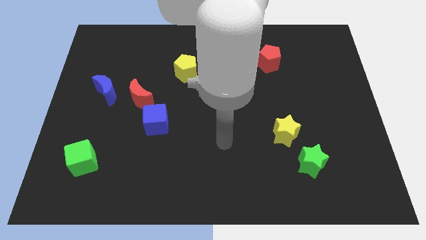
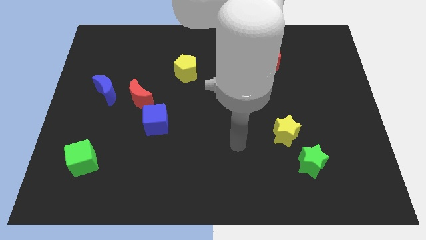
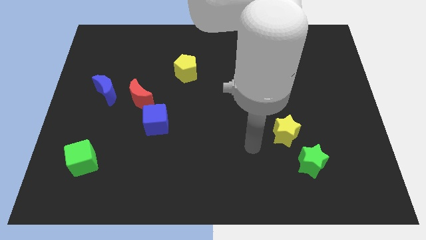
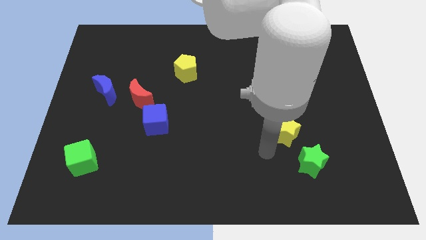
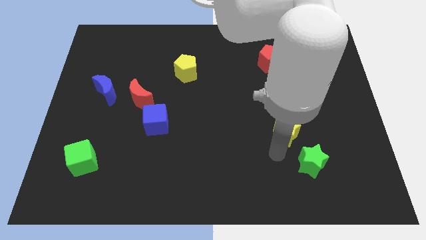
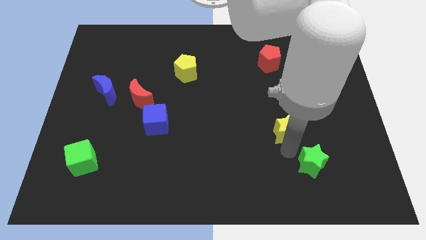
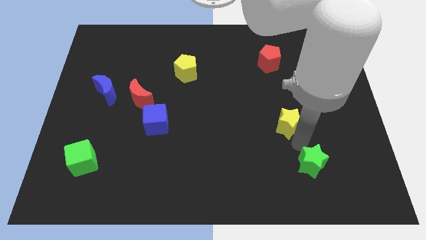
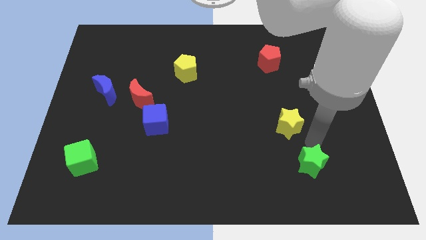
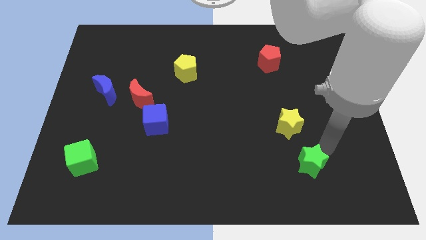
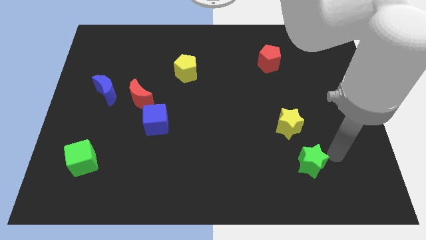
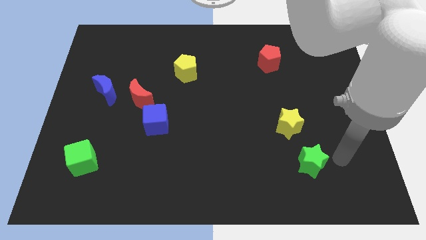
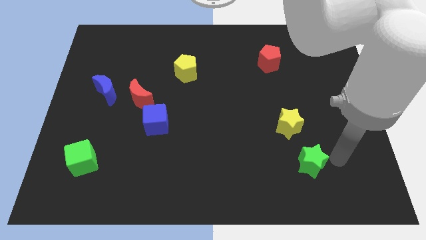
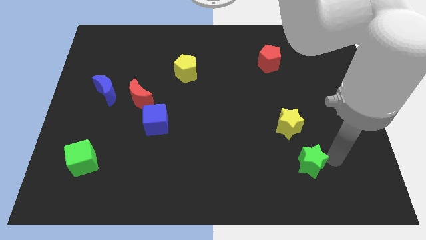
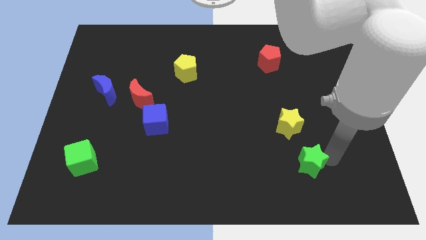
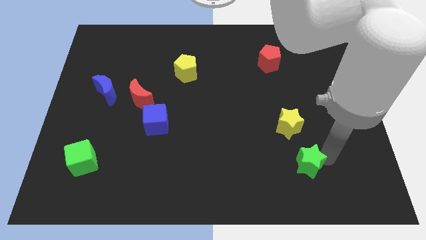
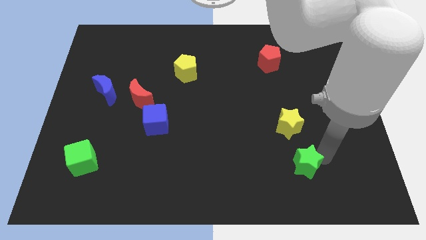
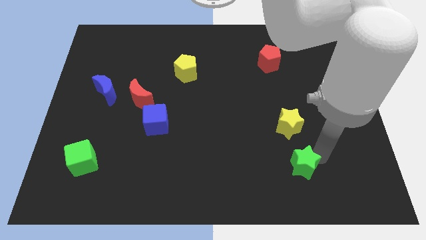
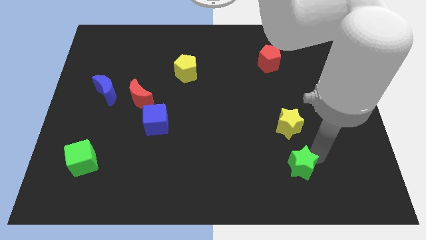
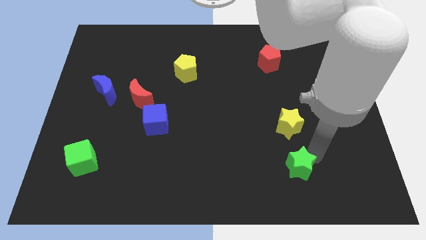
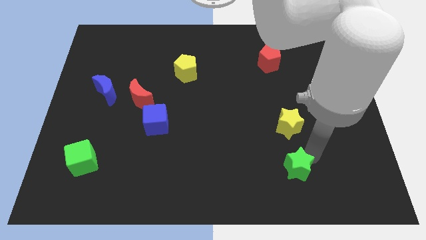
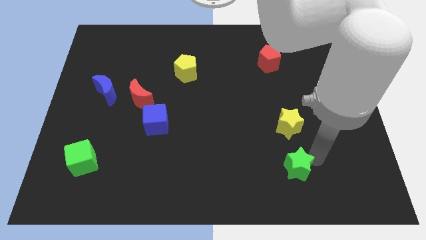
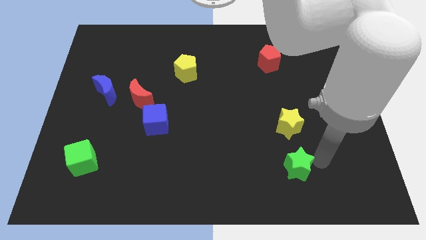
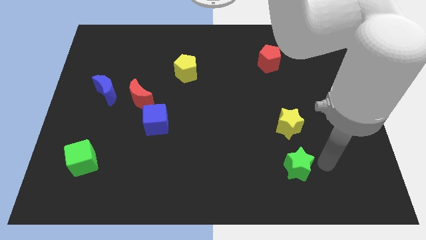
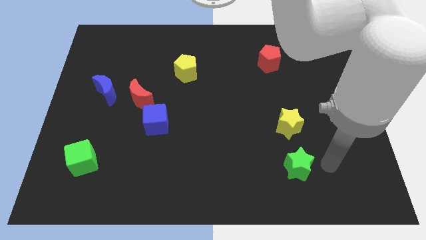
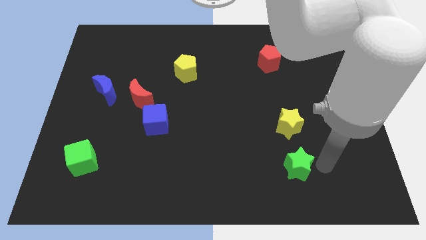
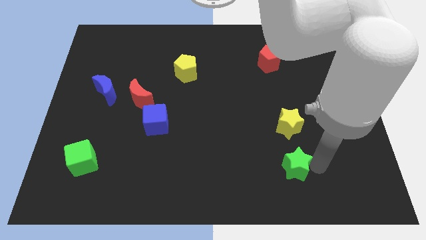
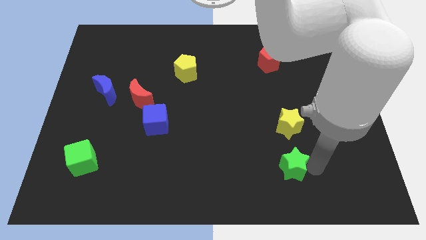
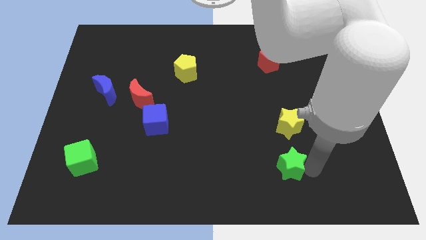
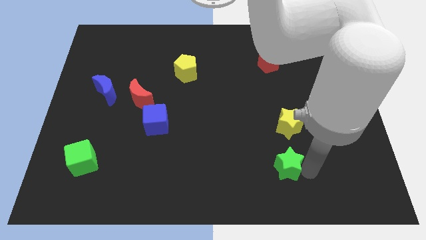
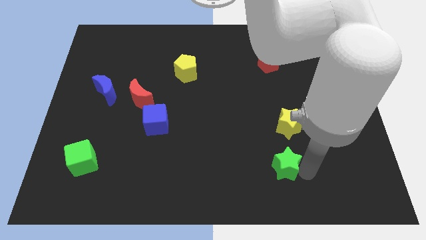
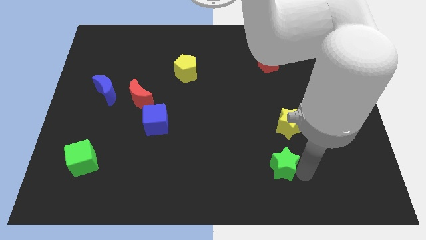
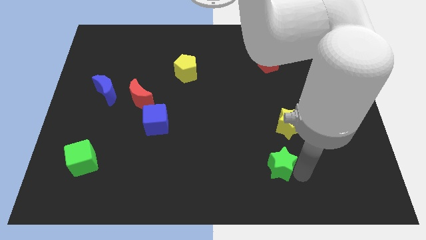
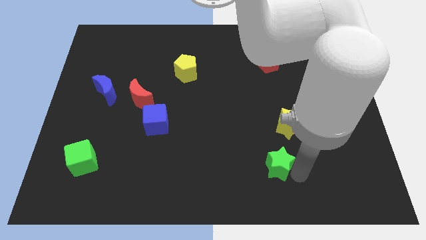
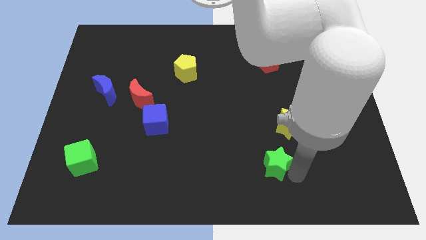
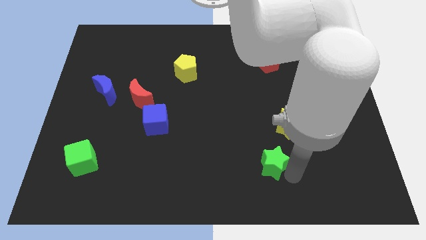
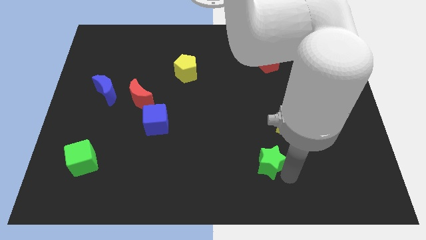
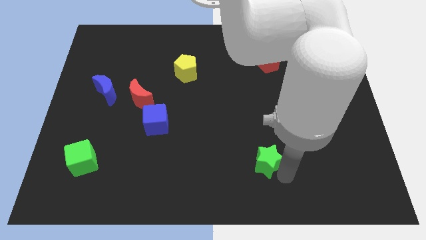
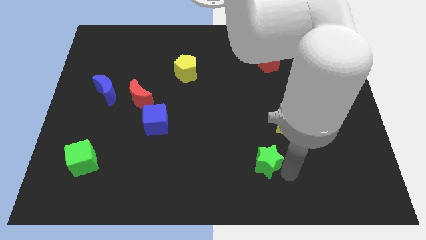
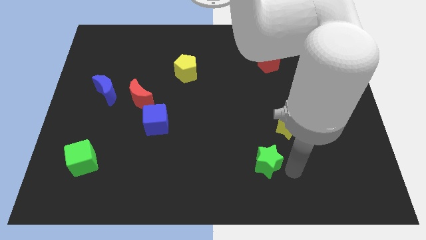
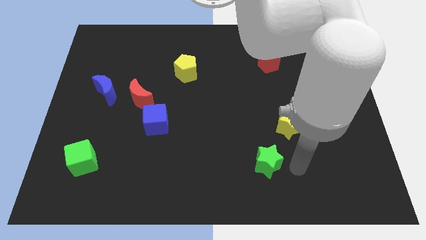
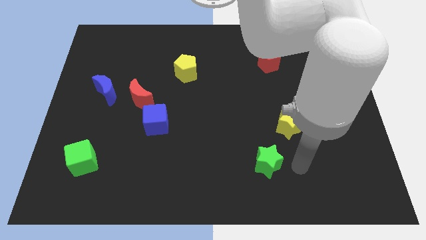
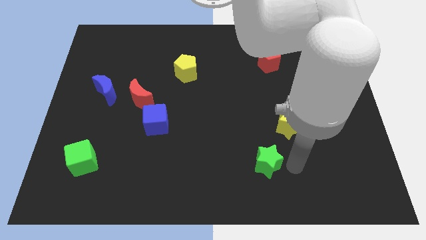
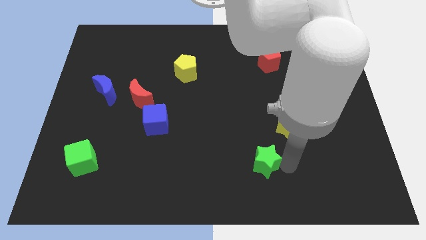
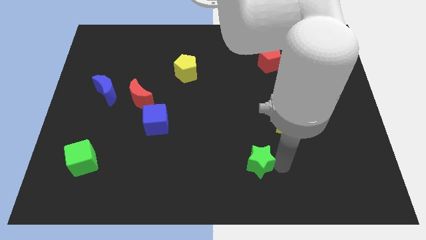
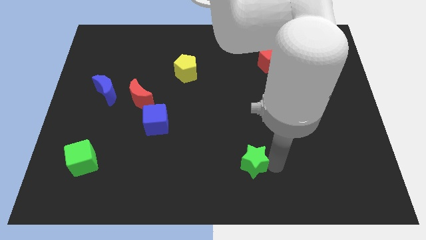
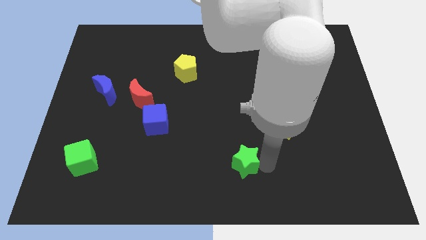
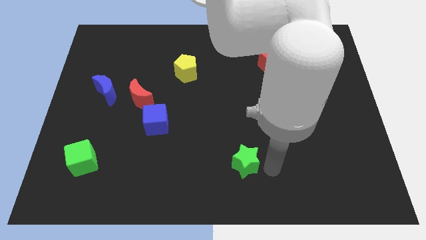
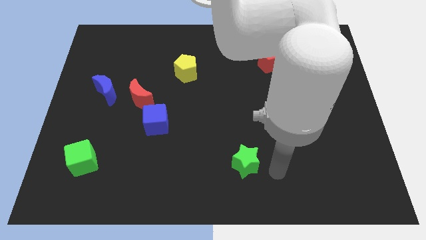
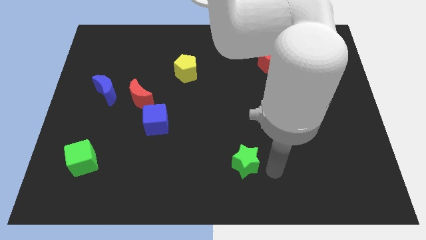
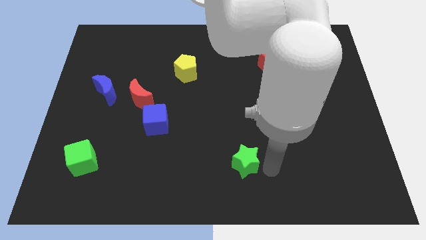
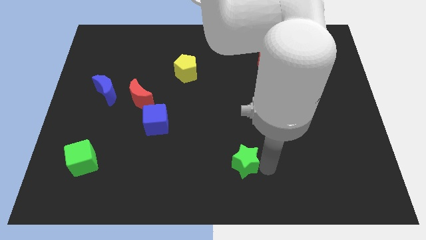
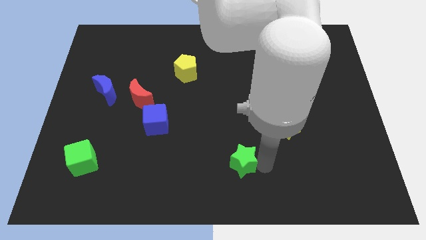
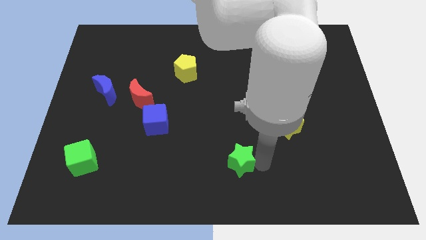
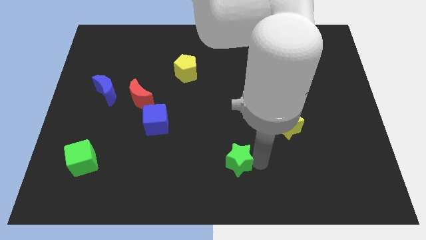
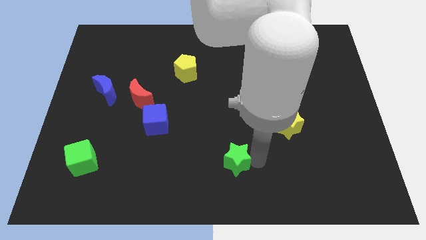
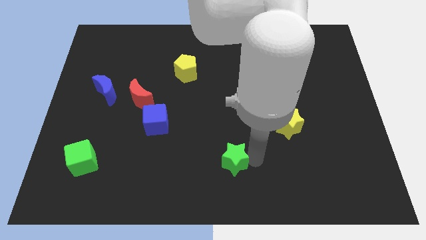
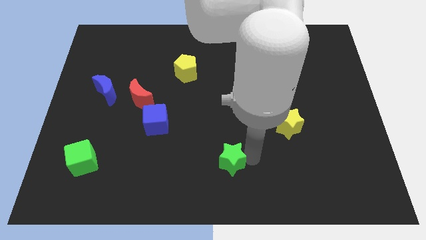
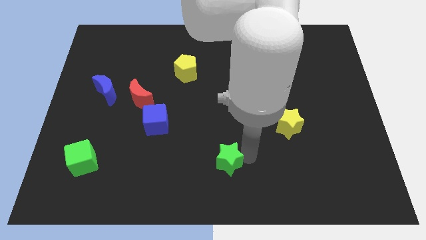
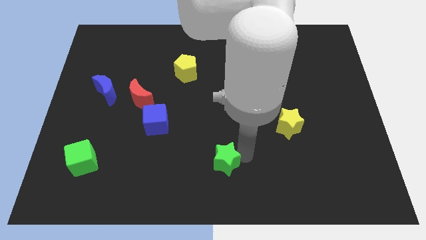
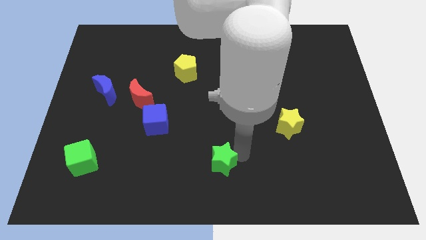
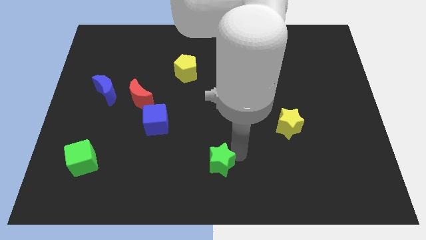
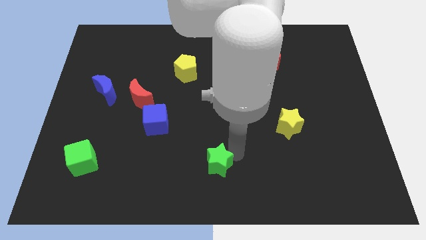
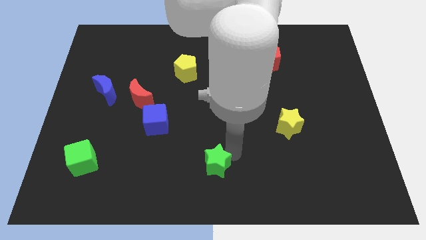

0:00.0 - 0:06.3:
move the green star to the left

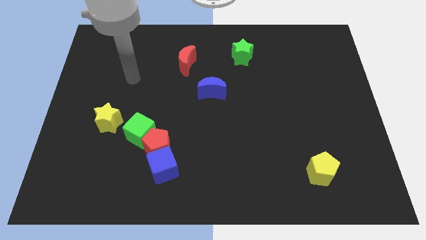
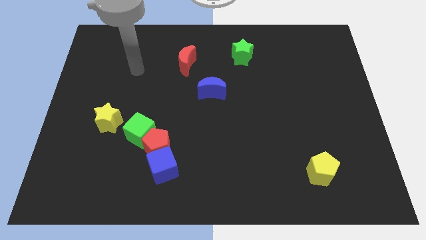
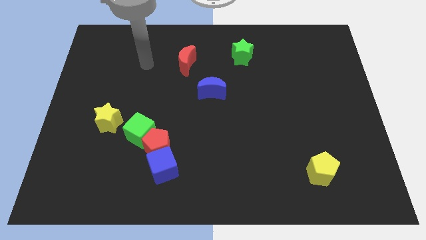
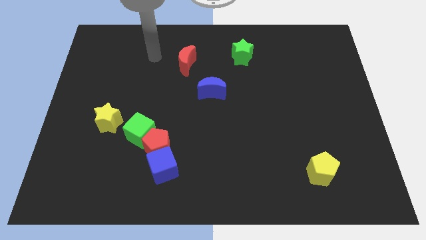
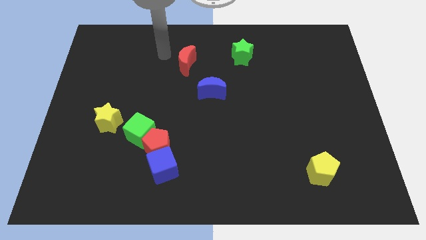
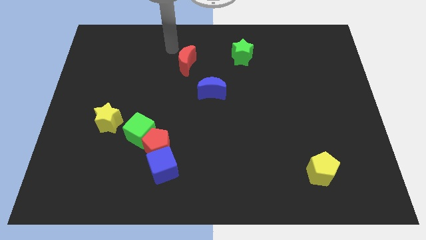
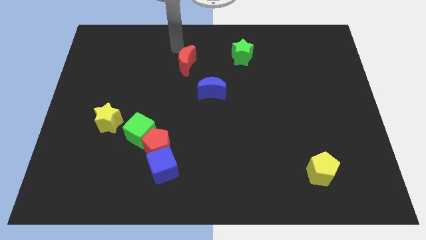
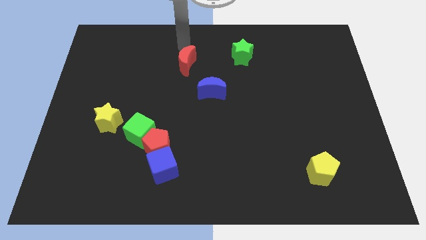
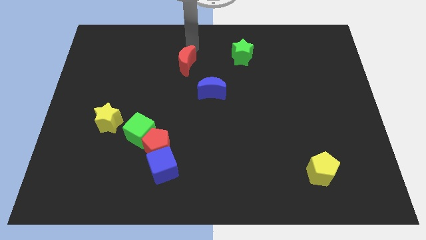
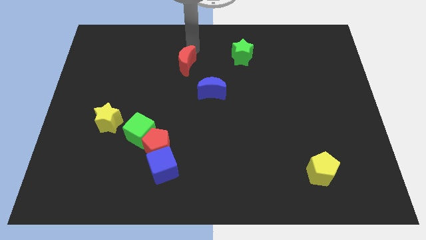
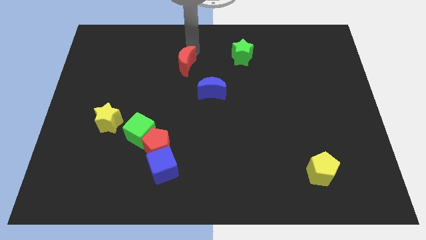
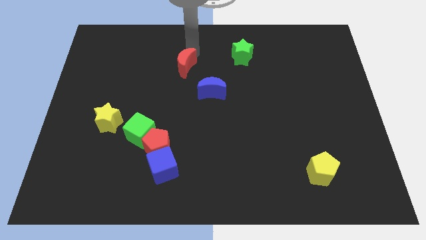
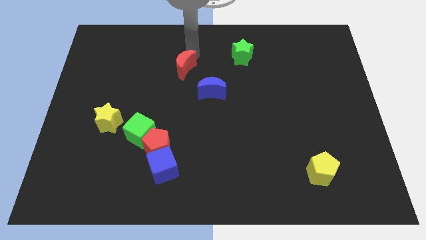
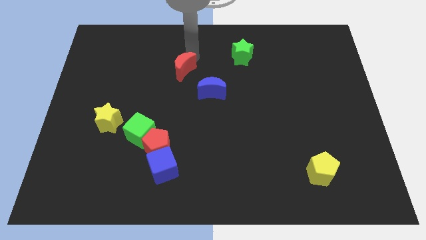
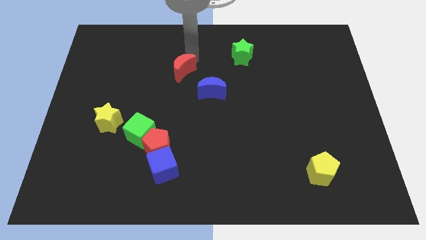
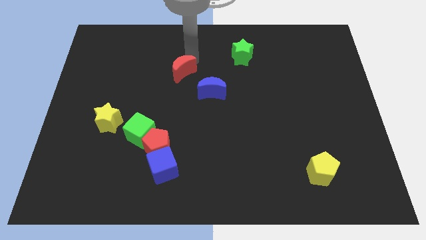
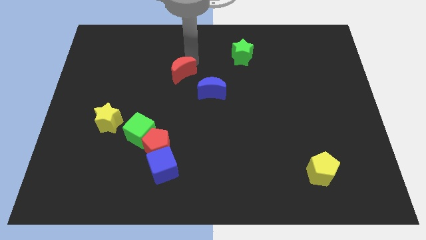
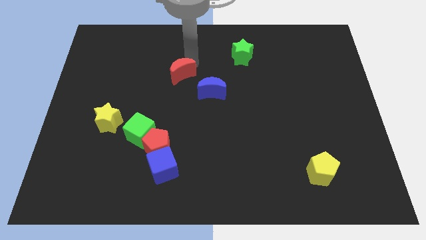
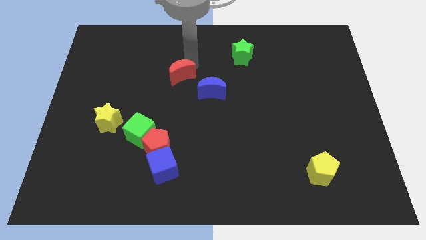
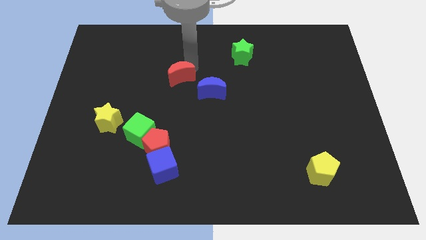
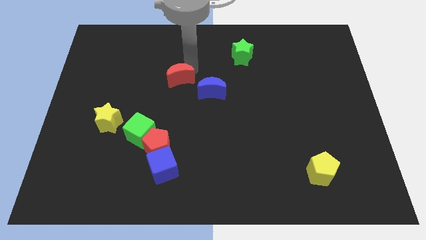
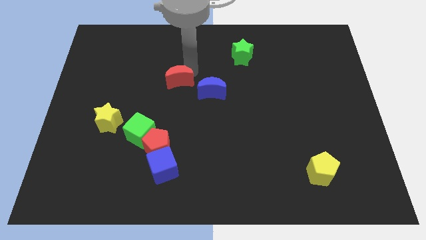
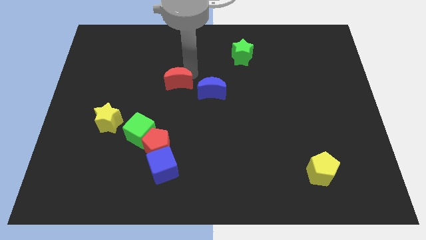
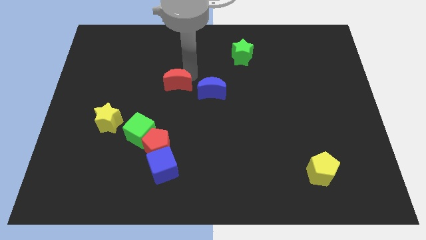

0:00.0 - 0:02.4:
slide the red moon slightly downwards
